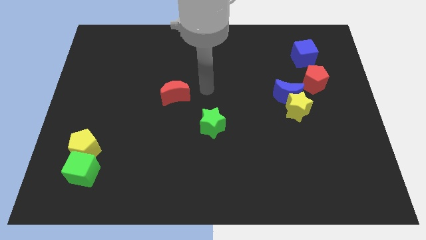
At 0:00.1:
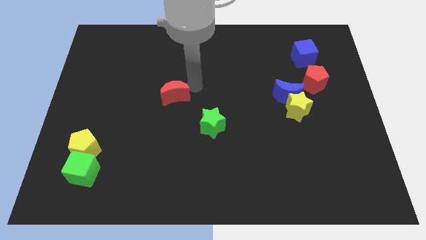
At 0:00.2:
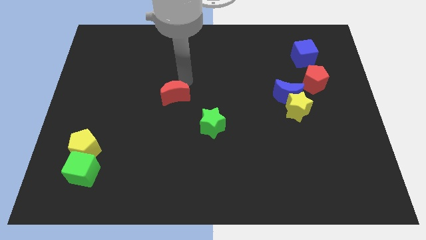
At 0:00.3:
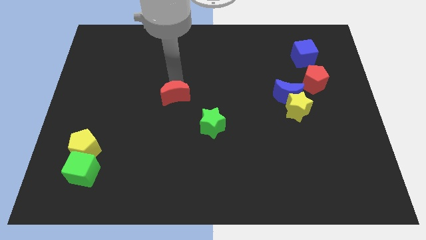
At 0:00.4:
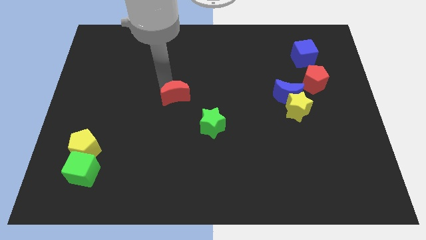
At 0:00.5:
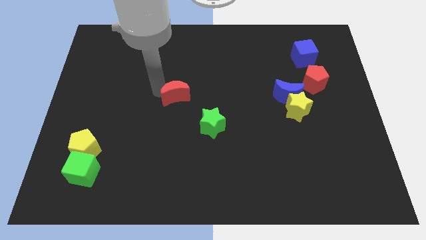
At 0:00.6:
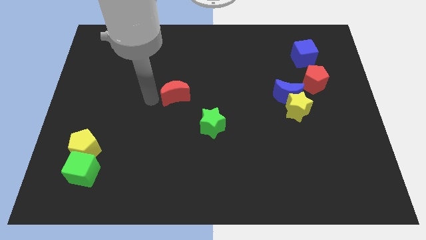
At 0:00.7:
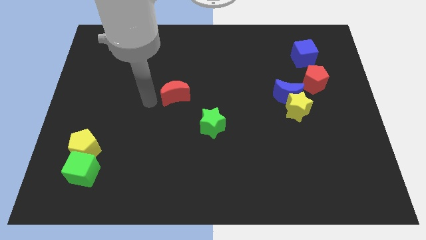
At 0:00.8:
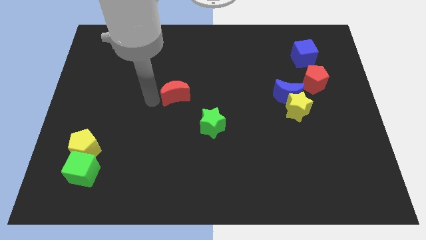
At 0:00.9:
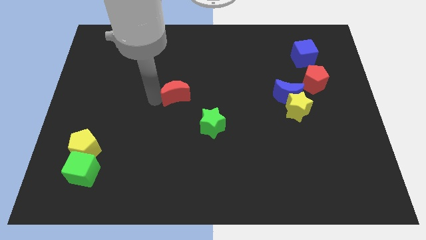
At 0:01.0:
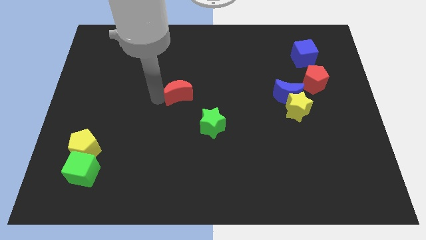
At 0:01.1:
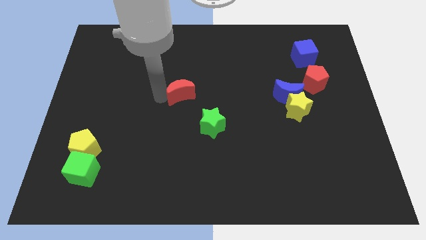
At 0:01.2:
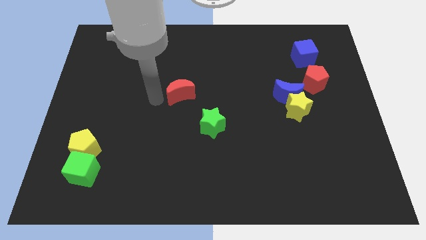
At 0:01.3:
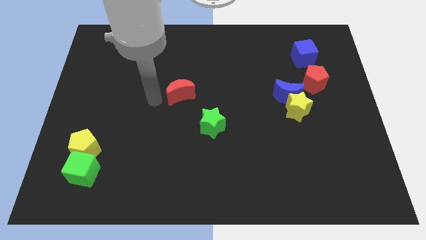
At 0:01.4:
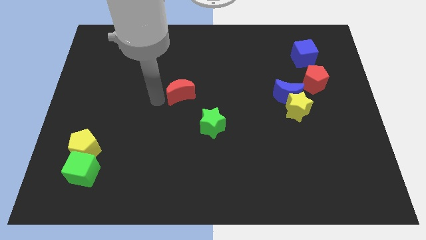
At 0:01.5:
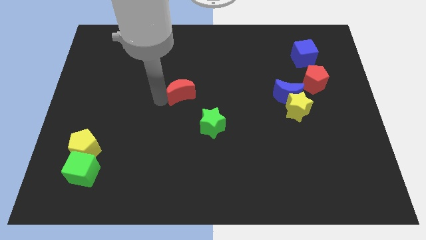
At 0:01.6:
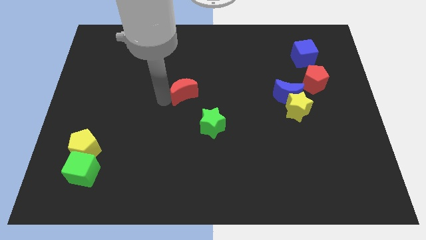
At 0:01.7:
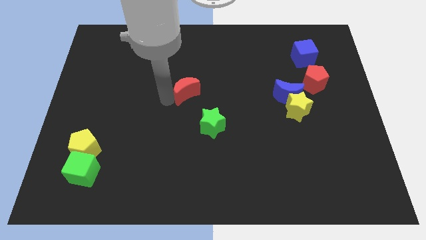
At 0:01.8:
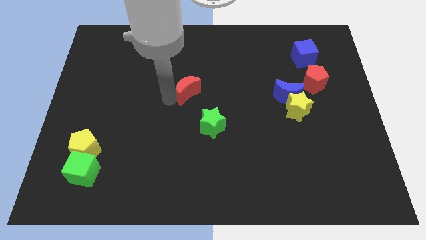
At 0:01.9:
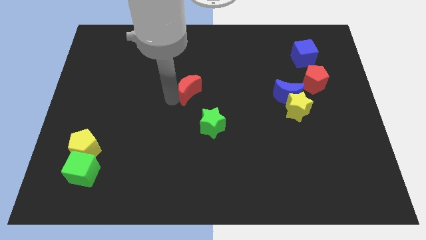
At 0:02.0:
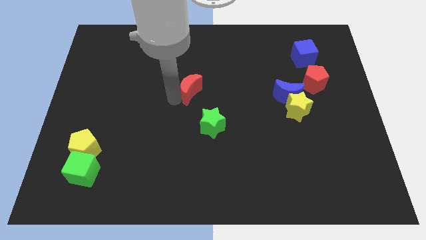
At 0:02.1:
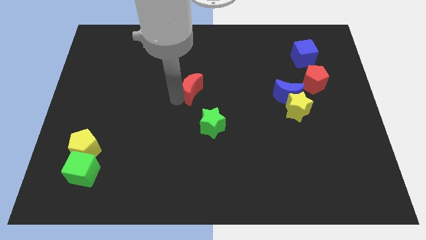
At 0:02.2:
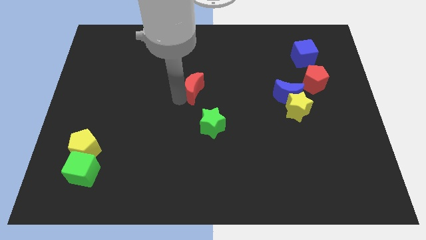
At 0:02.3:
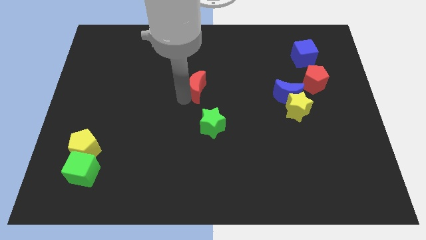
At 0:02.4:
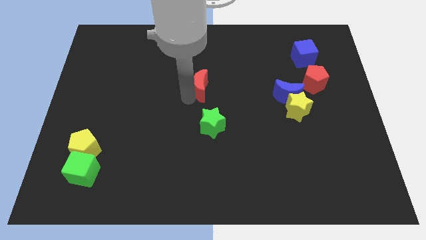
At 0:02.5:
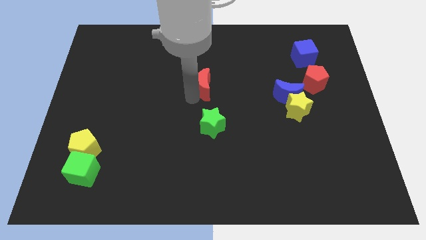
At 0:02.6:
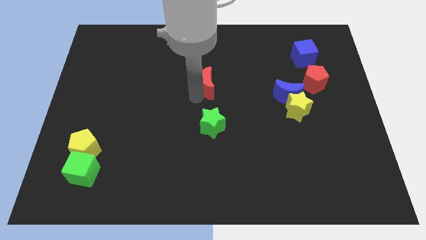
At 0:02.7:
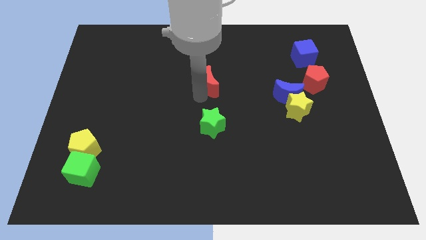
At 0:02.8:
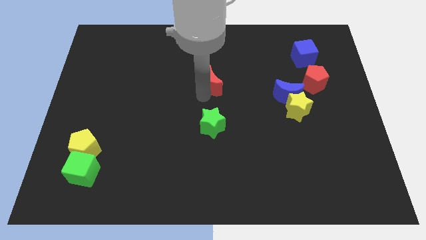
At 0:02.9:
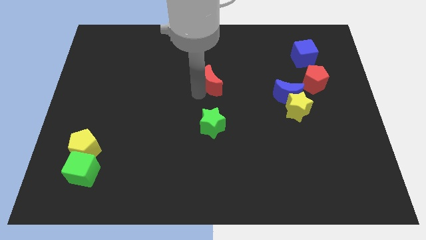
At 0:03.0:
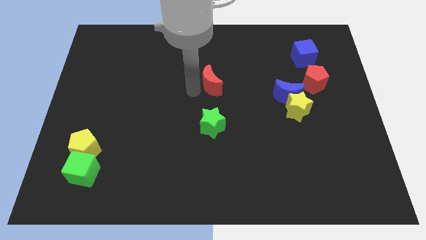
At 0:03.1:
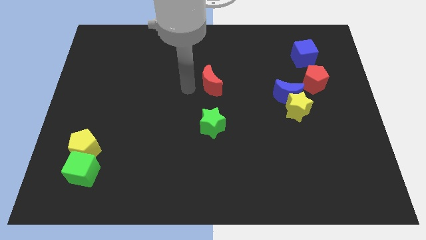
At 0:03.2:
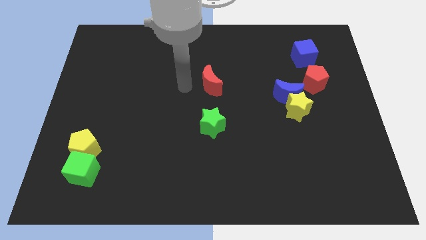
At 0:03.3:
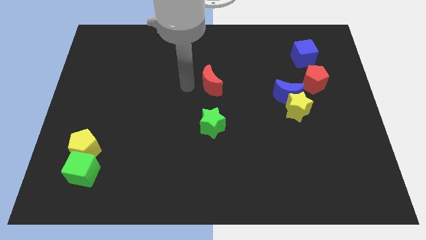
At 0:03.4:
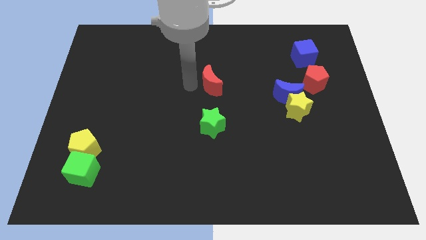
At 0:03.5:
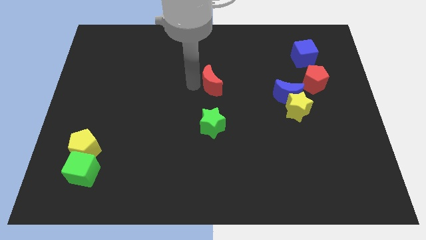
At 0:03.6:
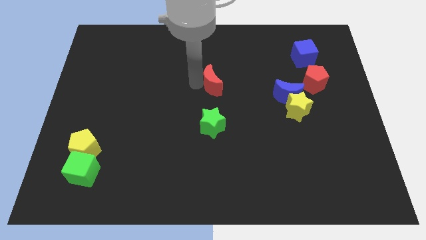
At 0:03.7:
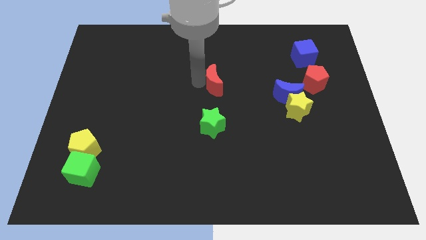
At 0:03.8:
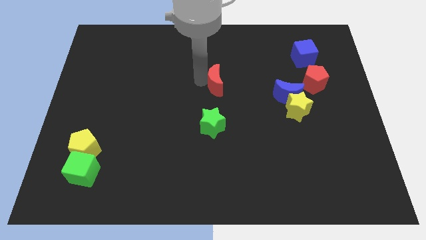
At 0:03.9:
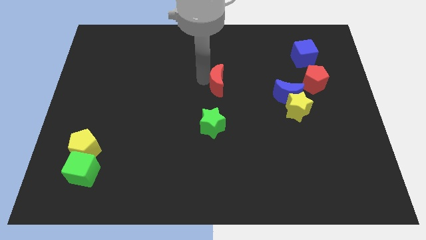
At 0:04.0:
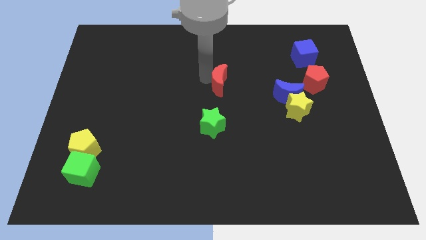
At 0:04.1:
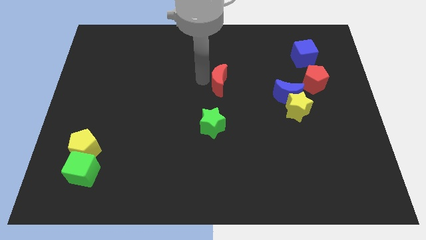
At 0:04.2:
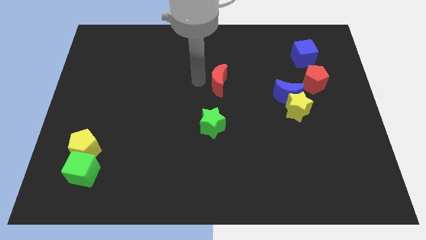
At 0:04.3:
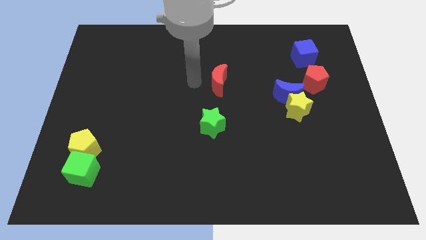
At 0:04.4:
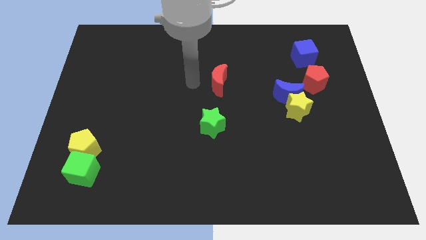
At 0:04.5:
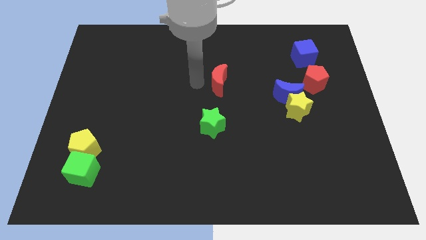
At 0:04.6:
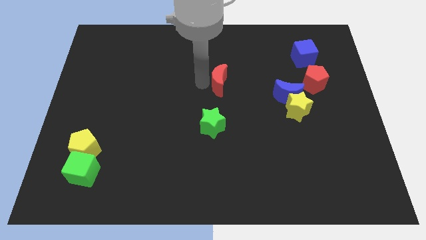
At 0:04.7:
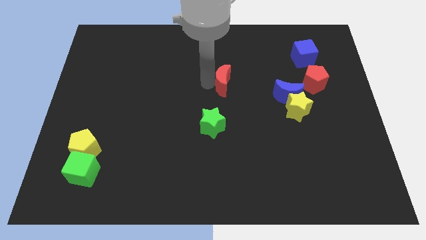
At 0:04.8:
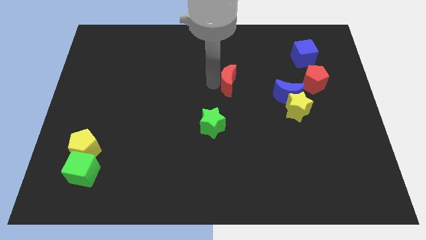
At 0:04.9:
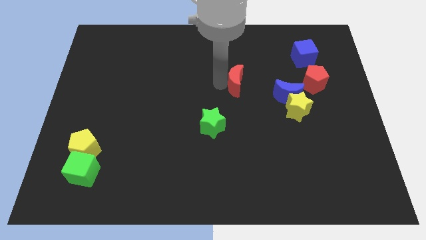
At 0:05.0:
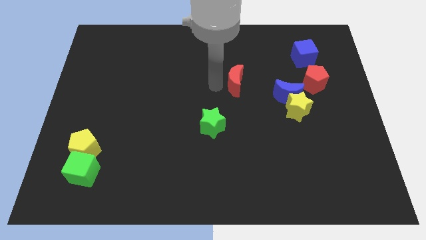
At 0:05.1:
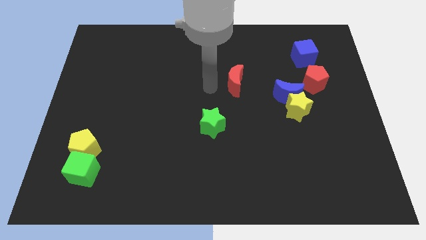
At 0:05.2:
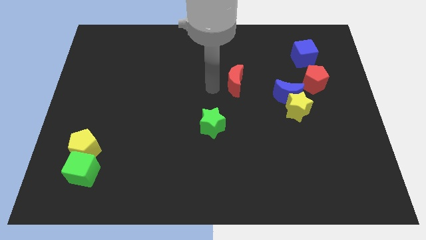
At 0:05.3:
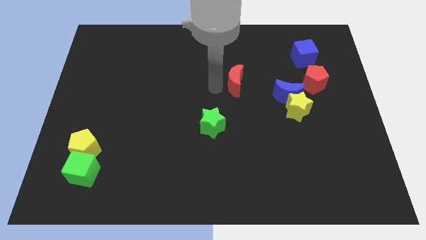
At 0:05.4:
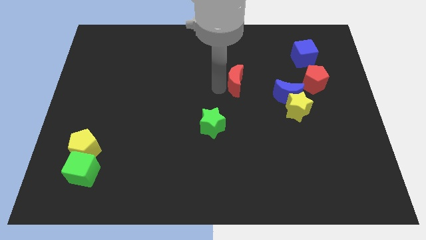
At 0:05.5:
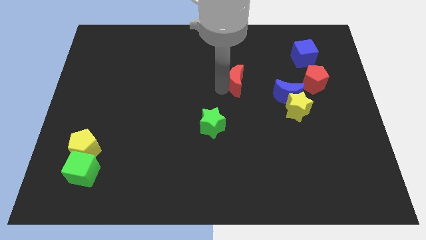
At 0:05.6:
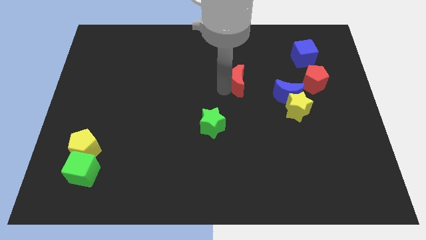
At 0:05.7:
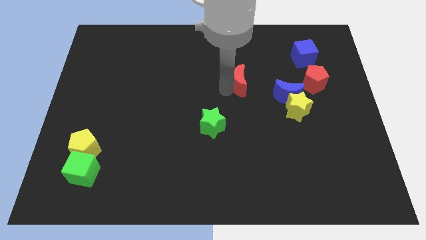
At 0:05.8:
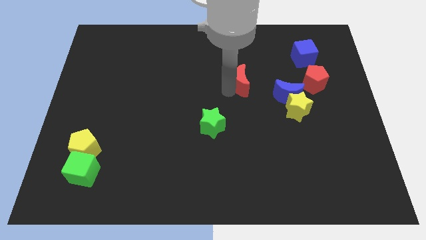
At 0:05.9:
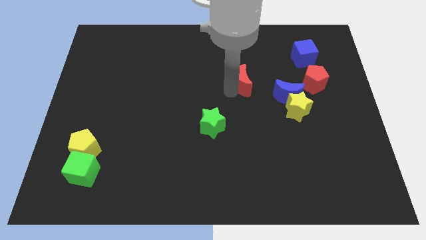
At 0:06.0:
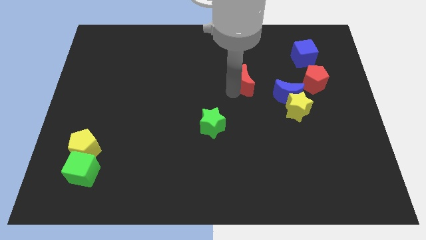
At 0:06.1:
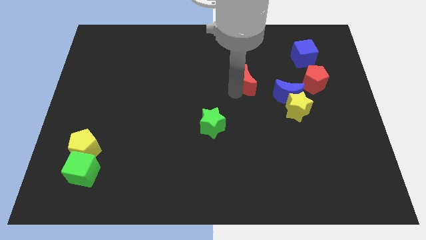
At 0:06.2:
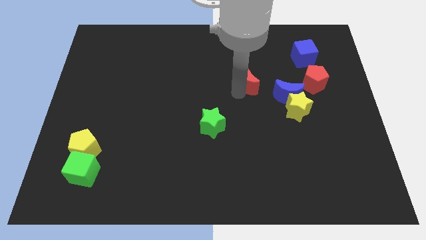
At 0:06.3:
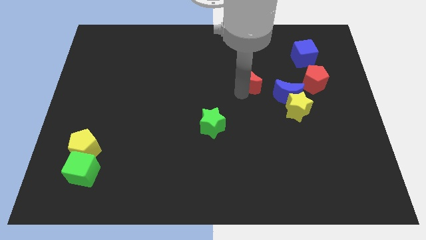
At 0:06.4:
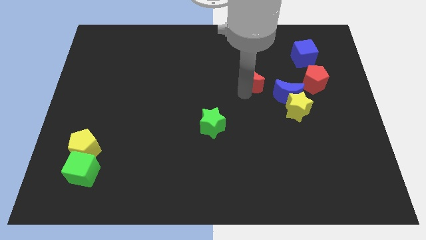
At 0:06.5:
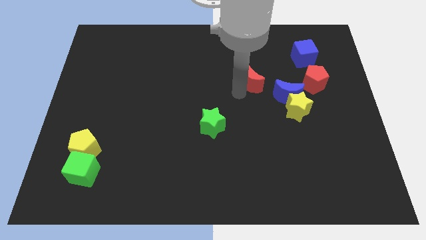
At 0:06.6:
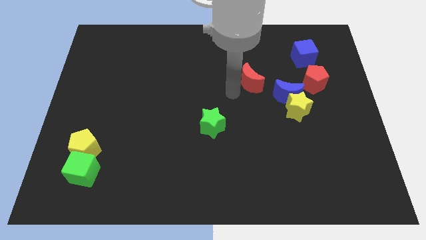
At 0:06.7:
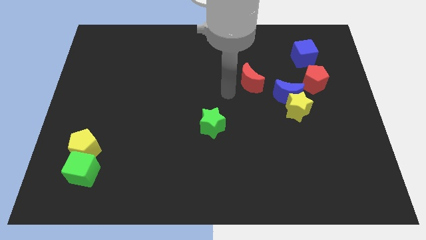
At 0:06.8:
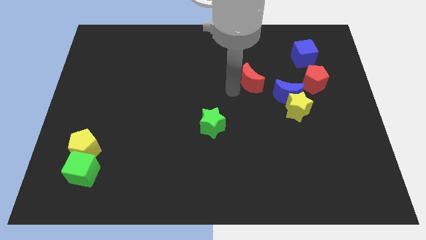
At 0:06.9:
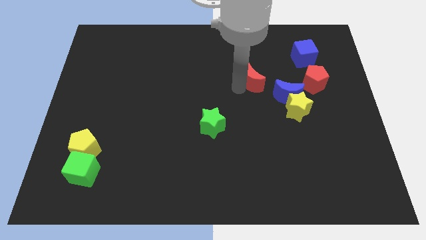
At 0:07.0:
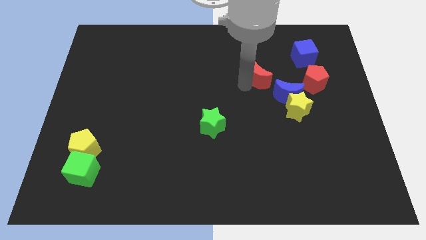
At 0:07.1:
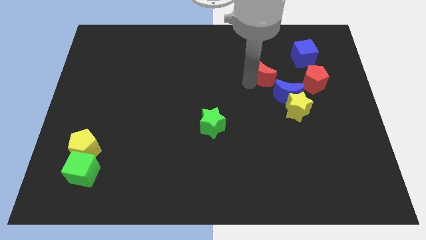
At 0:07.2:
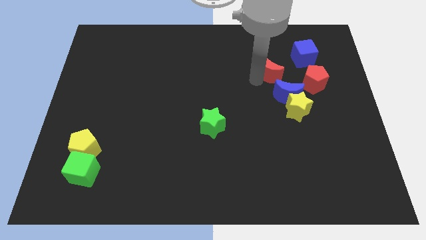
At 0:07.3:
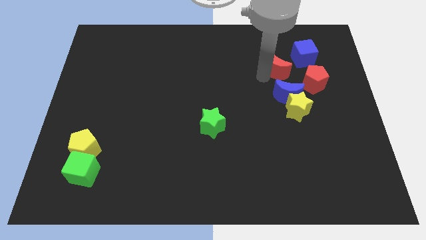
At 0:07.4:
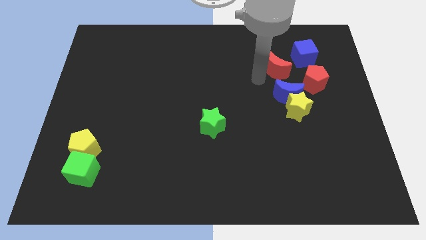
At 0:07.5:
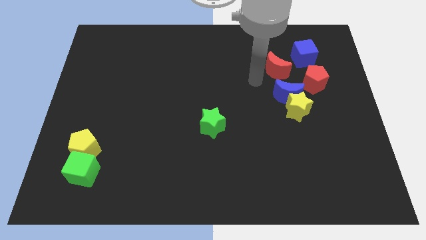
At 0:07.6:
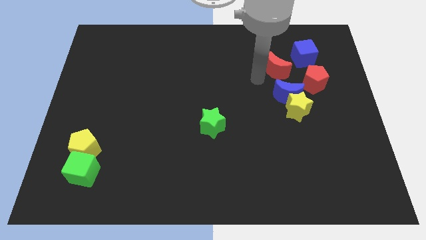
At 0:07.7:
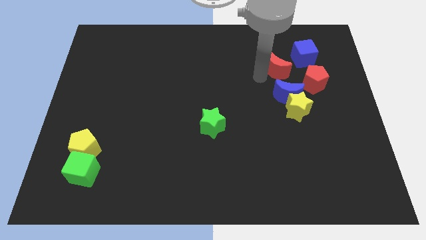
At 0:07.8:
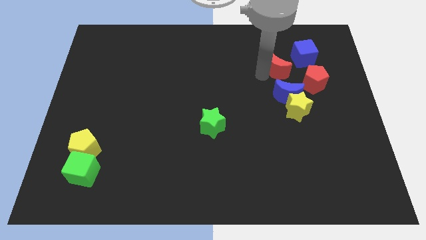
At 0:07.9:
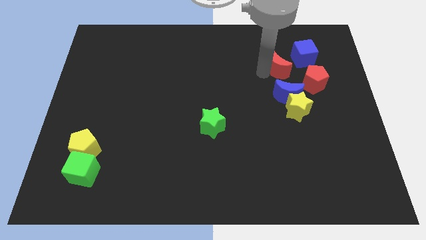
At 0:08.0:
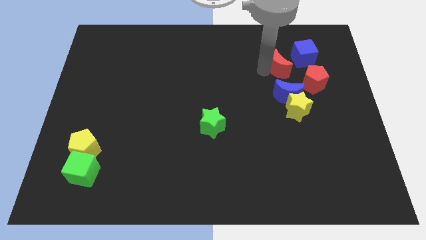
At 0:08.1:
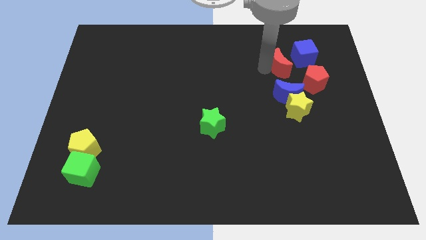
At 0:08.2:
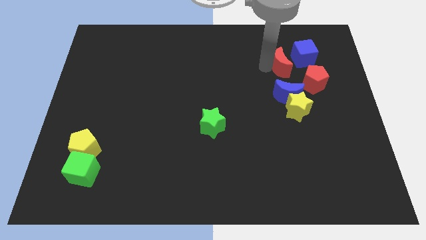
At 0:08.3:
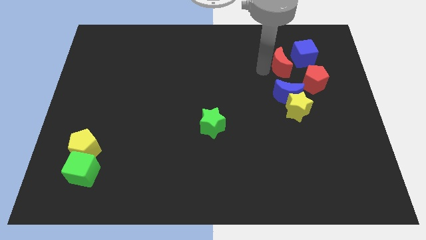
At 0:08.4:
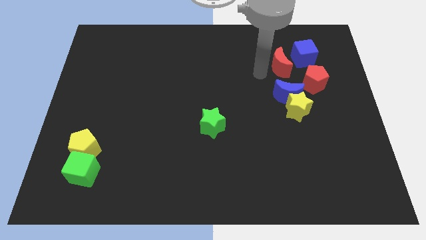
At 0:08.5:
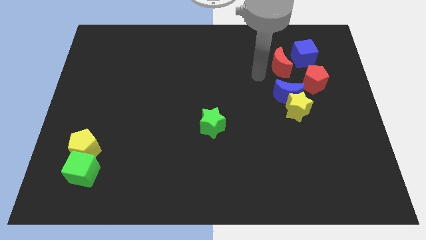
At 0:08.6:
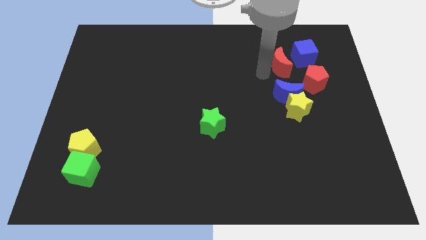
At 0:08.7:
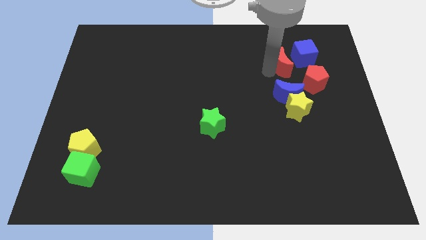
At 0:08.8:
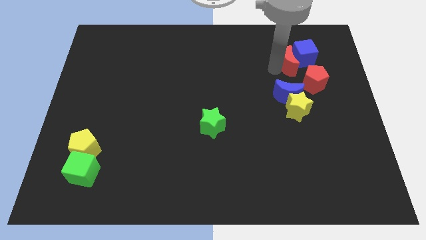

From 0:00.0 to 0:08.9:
put the red moon to the blue cube
